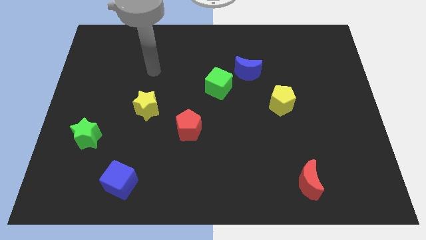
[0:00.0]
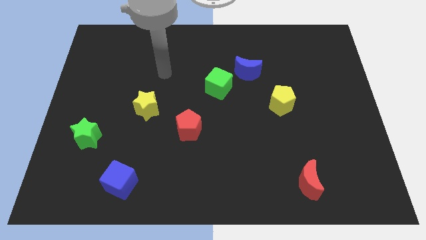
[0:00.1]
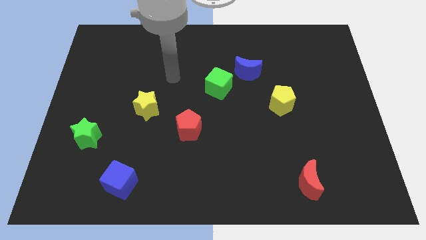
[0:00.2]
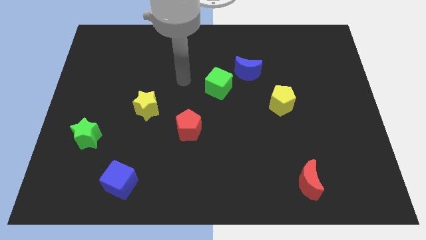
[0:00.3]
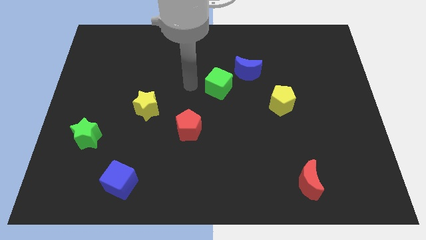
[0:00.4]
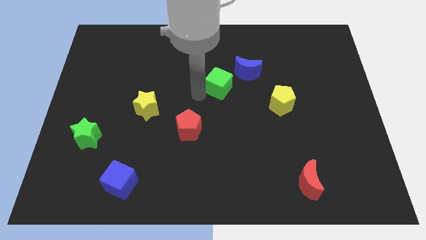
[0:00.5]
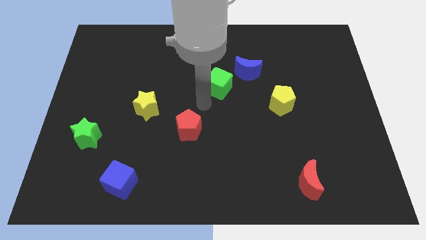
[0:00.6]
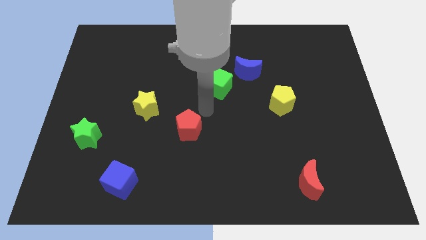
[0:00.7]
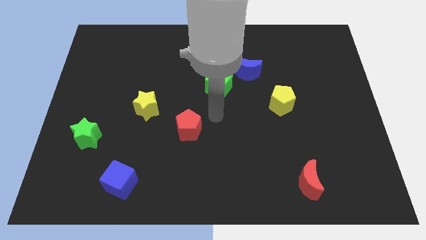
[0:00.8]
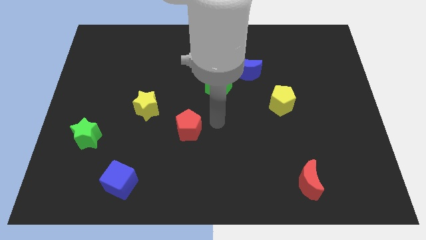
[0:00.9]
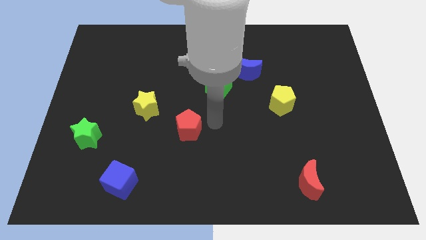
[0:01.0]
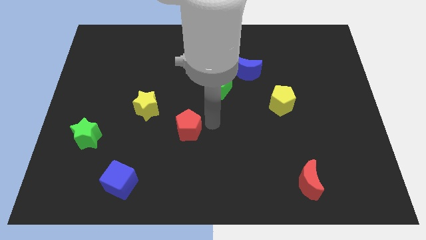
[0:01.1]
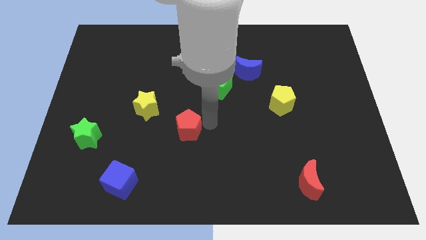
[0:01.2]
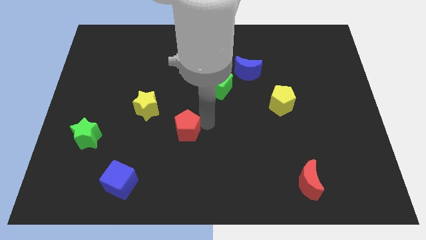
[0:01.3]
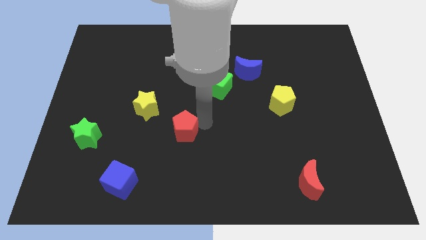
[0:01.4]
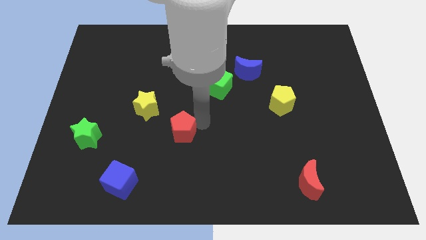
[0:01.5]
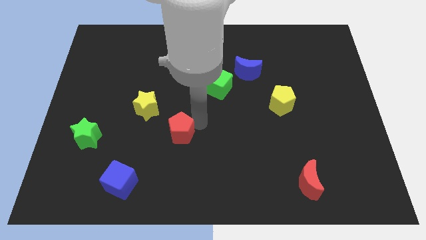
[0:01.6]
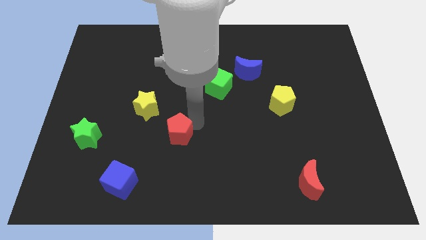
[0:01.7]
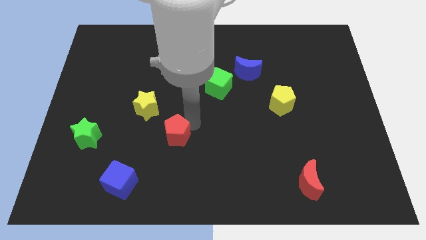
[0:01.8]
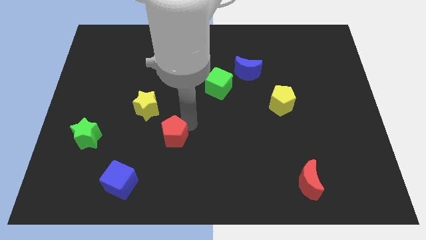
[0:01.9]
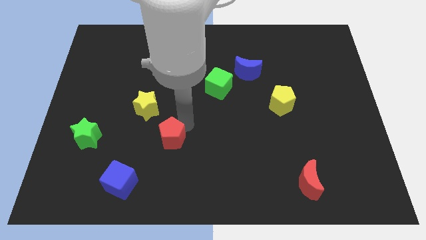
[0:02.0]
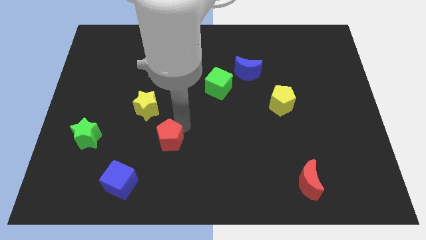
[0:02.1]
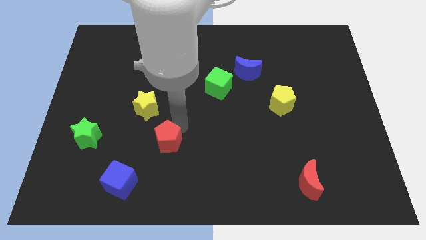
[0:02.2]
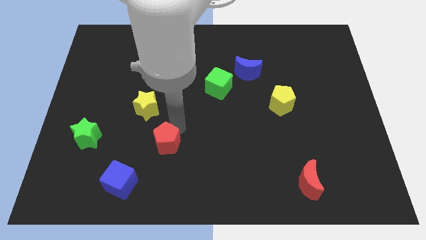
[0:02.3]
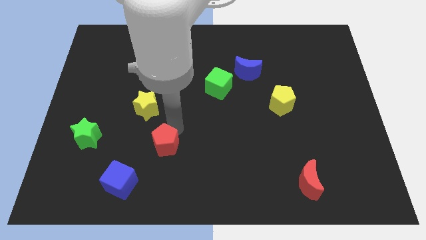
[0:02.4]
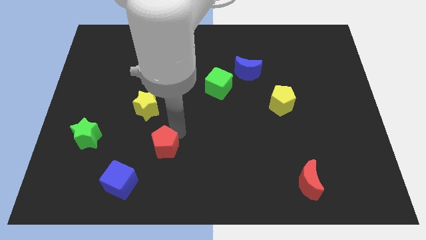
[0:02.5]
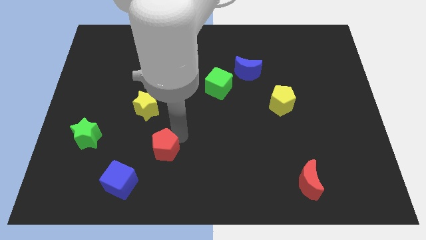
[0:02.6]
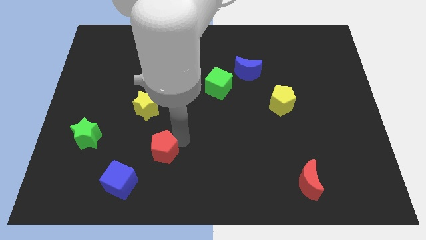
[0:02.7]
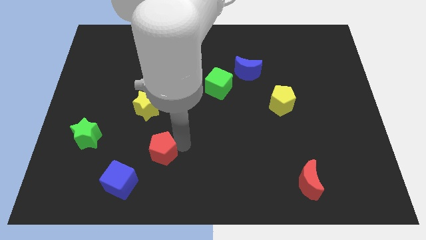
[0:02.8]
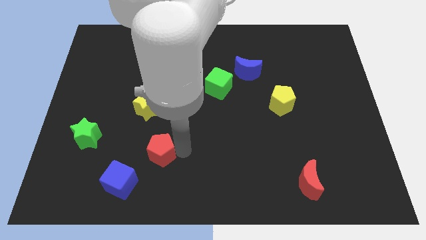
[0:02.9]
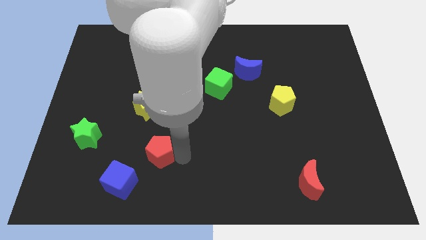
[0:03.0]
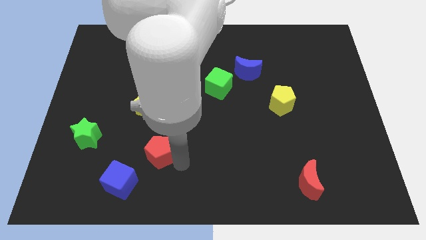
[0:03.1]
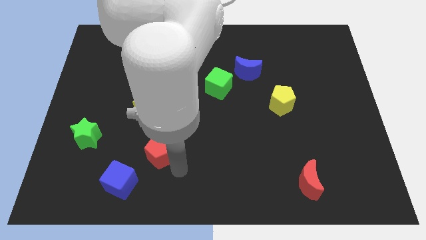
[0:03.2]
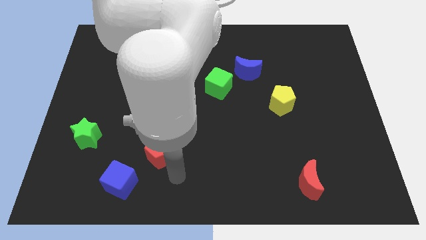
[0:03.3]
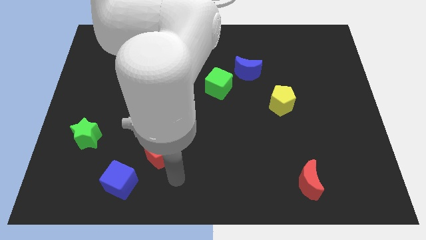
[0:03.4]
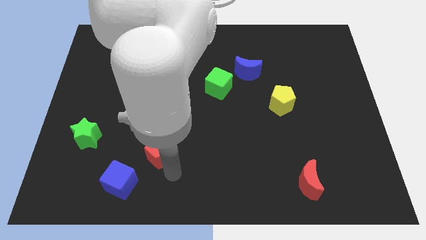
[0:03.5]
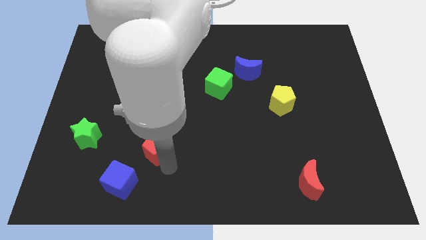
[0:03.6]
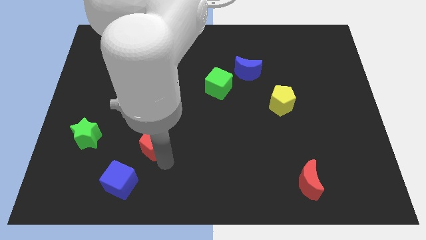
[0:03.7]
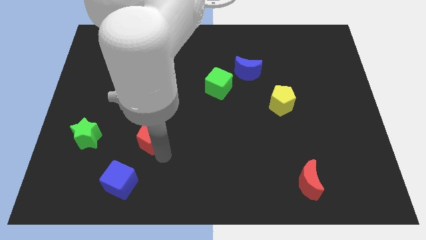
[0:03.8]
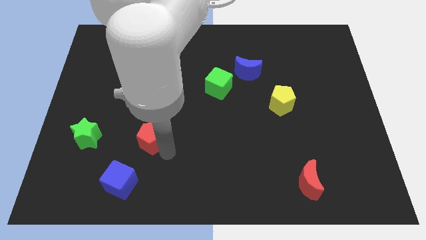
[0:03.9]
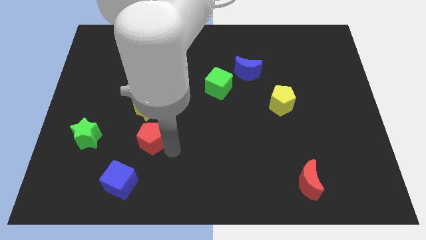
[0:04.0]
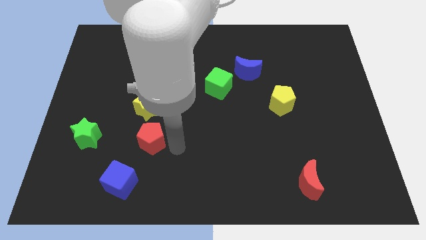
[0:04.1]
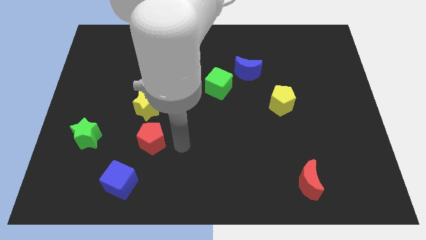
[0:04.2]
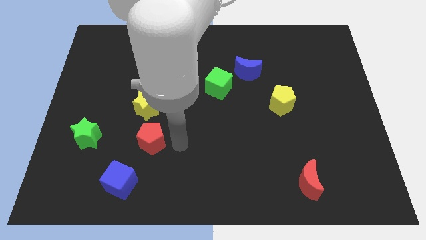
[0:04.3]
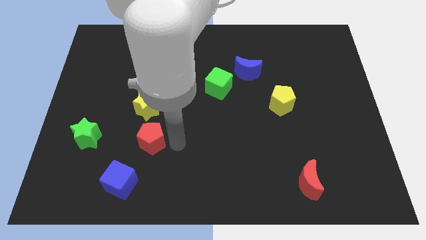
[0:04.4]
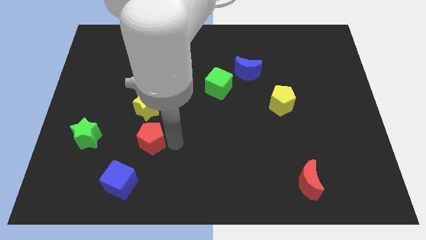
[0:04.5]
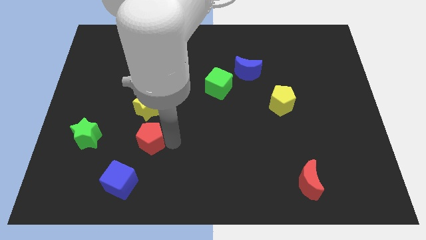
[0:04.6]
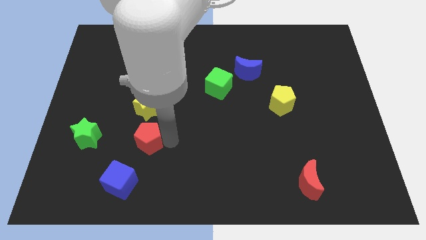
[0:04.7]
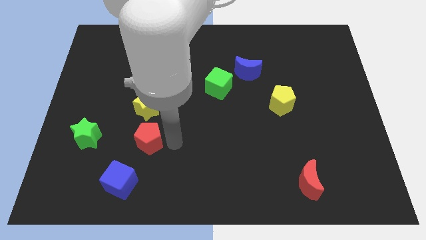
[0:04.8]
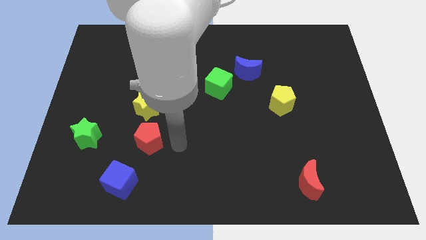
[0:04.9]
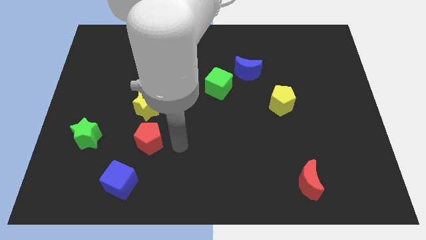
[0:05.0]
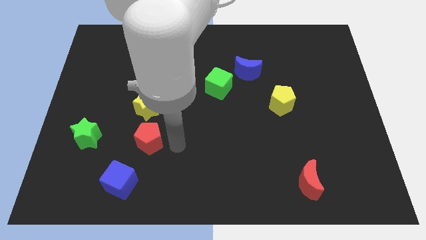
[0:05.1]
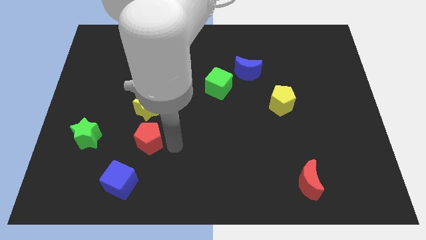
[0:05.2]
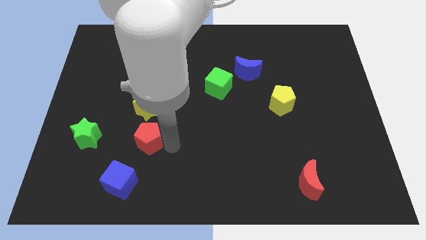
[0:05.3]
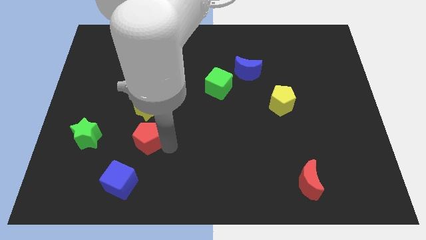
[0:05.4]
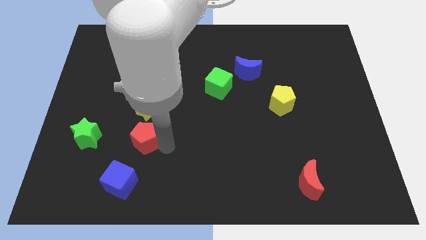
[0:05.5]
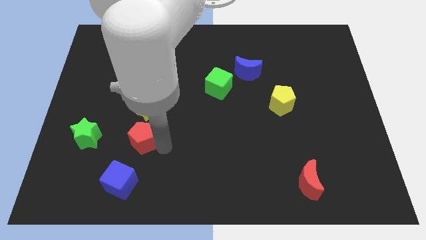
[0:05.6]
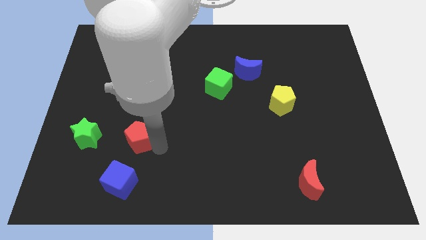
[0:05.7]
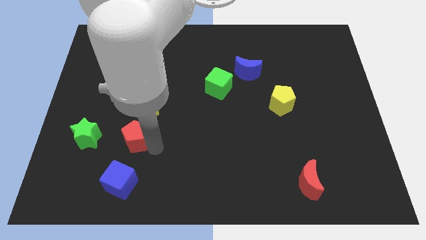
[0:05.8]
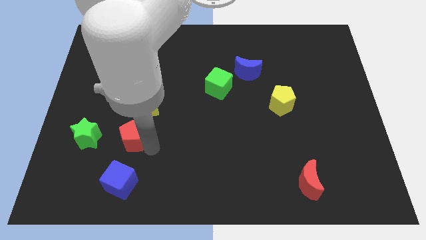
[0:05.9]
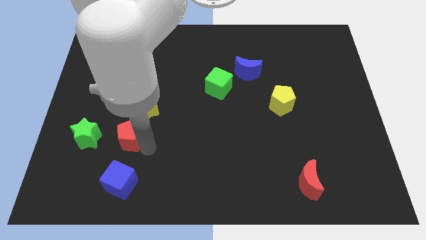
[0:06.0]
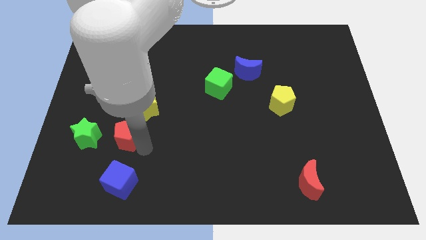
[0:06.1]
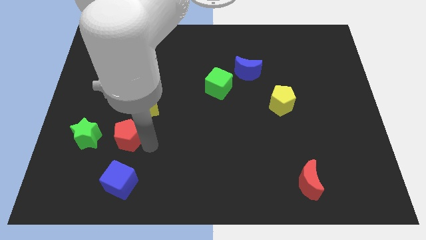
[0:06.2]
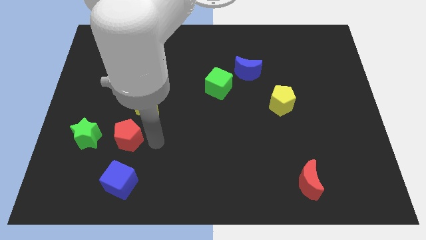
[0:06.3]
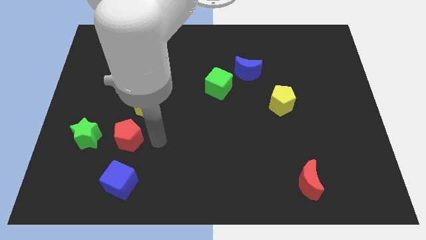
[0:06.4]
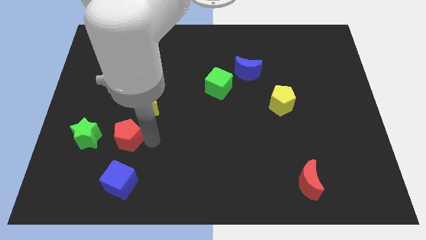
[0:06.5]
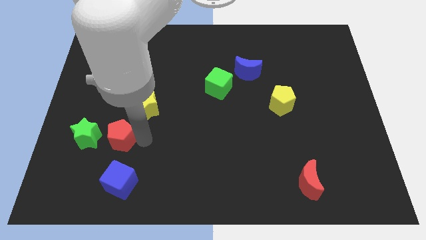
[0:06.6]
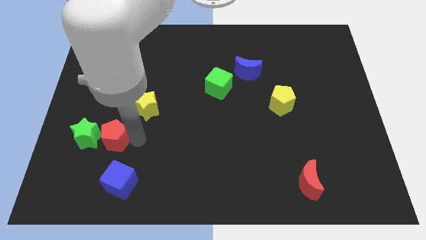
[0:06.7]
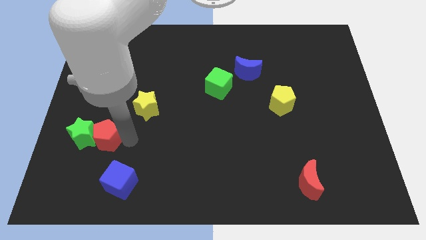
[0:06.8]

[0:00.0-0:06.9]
slide the red pentagon towards the green star
